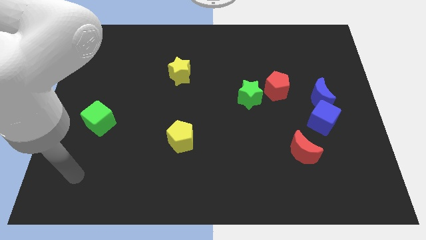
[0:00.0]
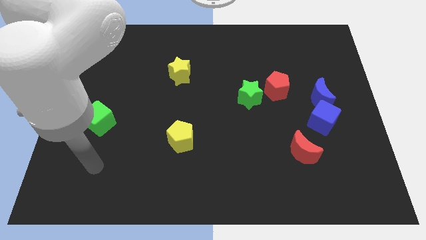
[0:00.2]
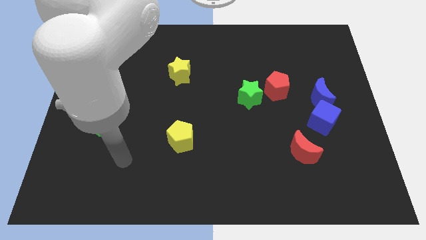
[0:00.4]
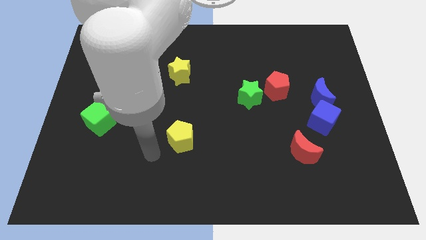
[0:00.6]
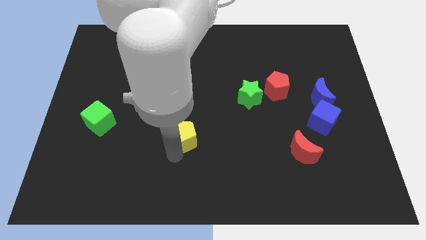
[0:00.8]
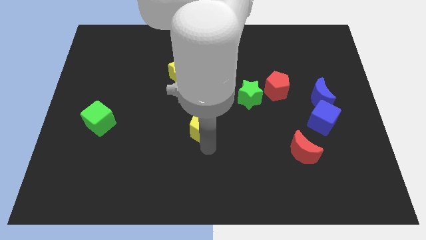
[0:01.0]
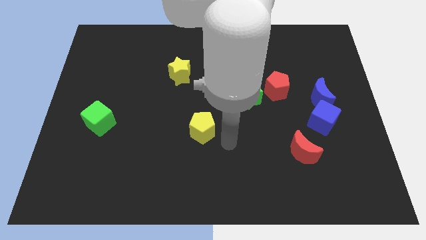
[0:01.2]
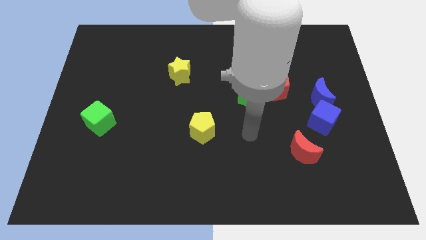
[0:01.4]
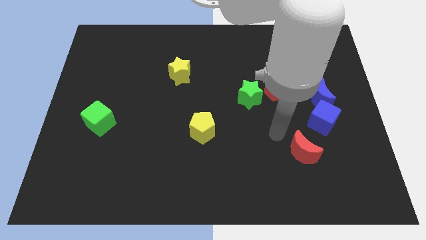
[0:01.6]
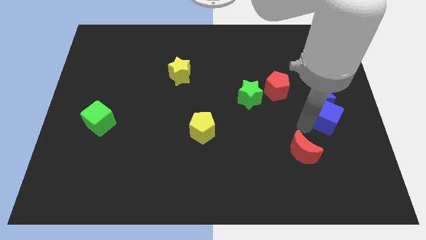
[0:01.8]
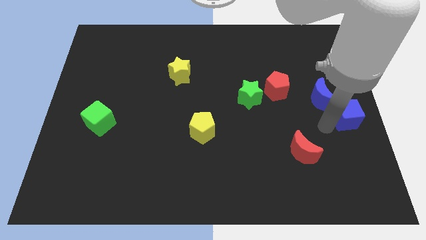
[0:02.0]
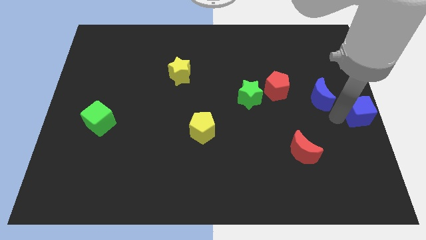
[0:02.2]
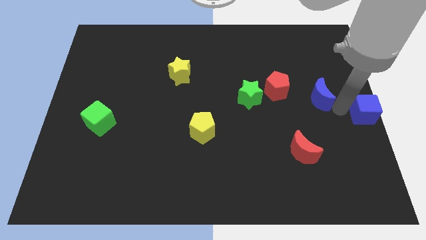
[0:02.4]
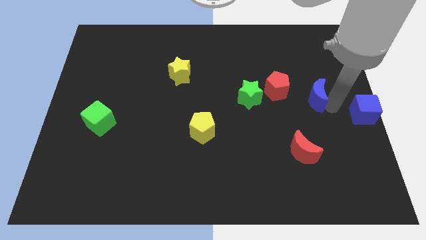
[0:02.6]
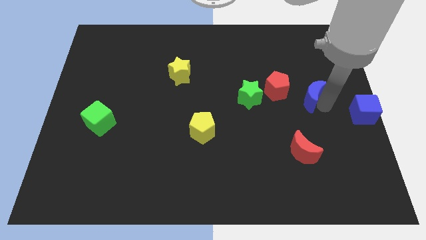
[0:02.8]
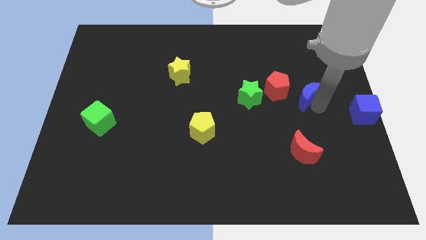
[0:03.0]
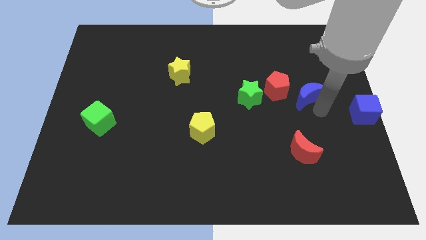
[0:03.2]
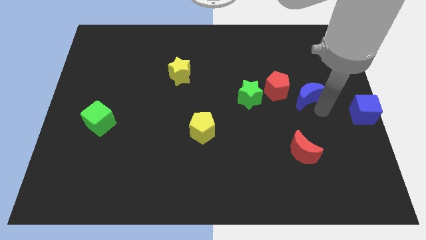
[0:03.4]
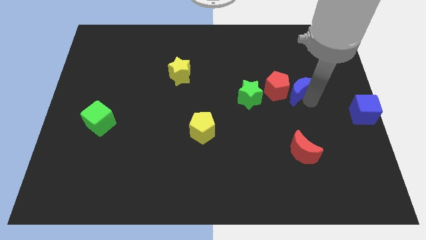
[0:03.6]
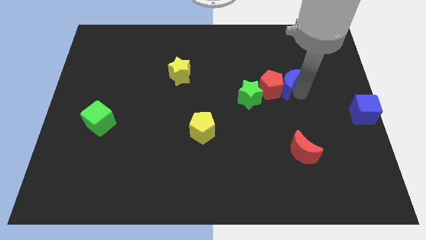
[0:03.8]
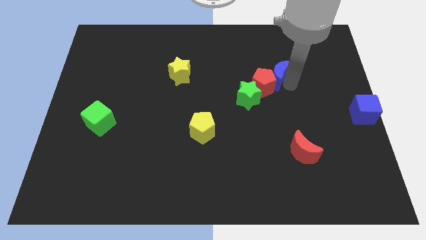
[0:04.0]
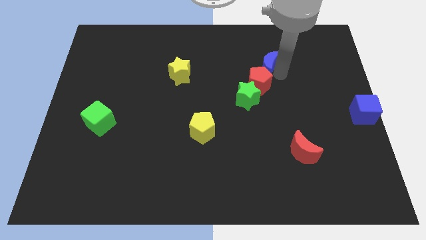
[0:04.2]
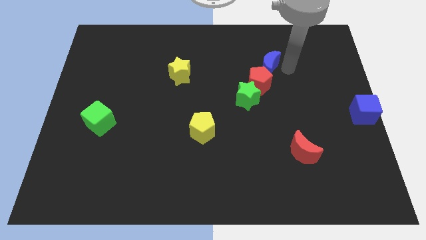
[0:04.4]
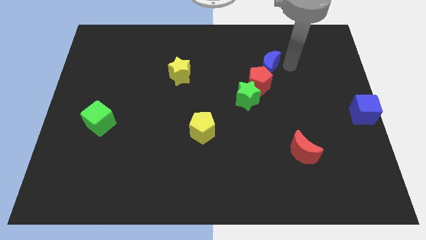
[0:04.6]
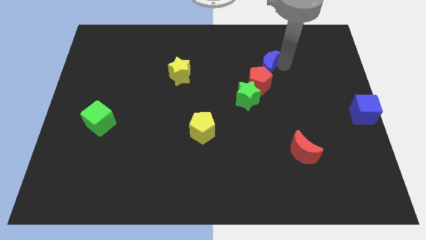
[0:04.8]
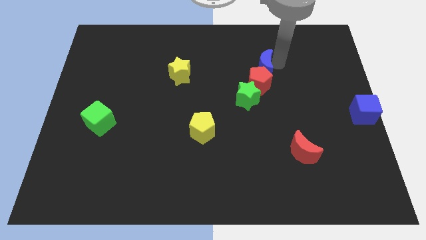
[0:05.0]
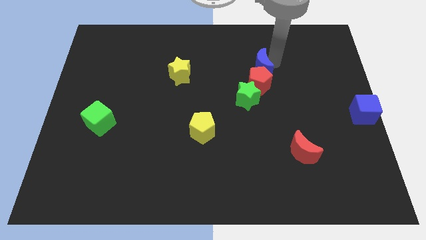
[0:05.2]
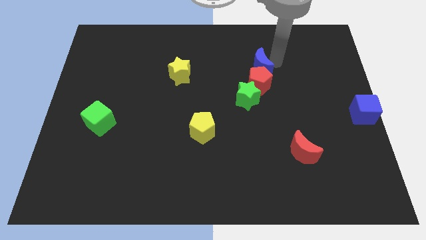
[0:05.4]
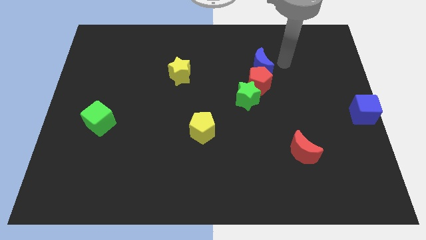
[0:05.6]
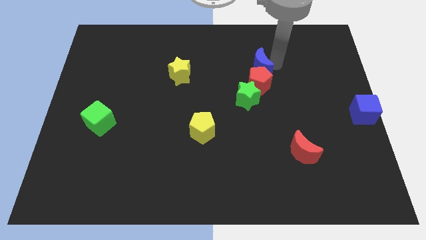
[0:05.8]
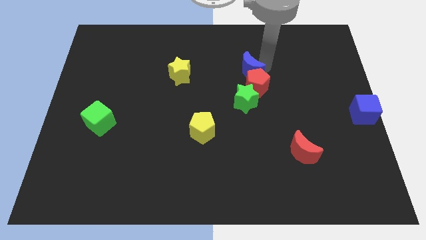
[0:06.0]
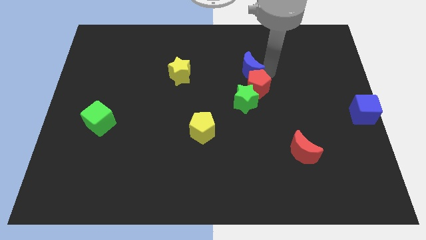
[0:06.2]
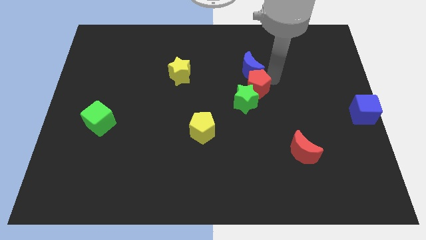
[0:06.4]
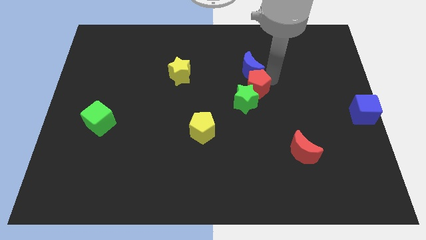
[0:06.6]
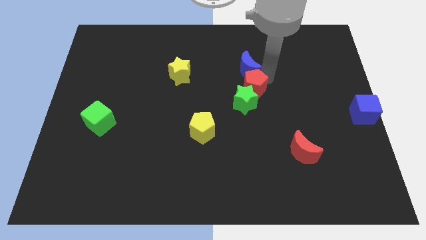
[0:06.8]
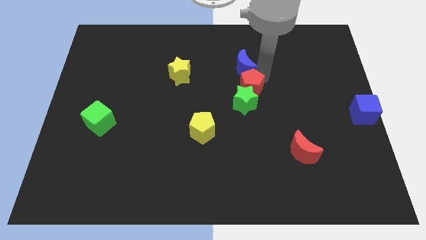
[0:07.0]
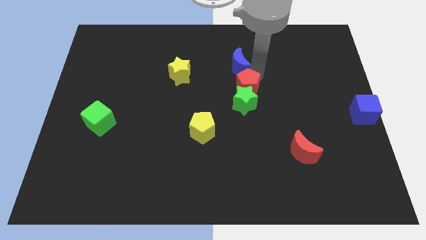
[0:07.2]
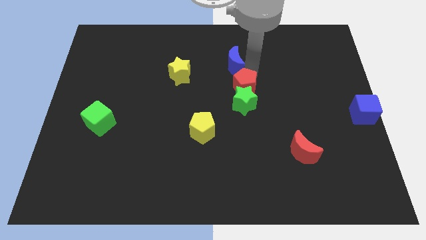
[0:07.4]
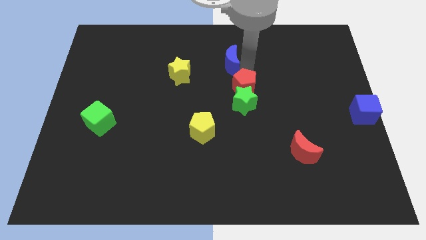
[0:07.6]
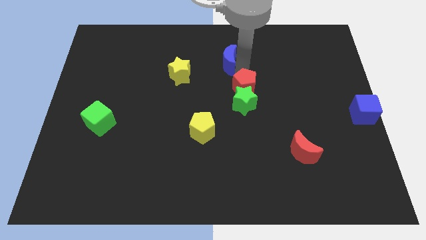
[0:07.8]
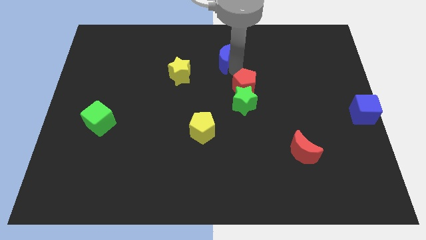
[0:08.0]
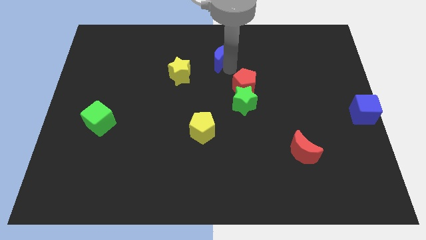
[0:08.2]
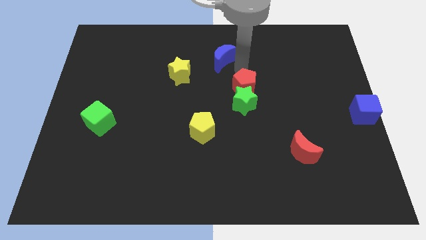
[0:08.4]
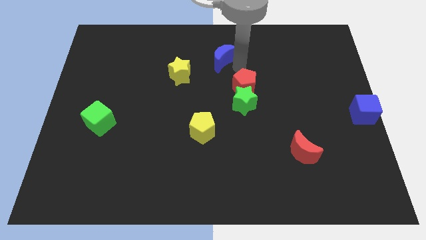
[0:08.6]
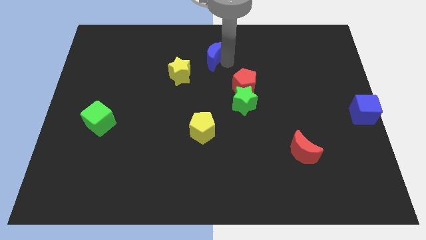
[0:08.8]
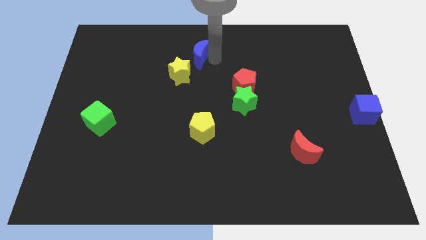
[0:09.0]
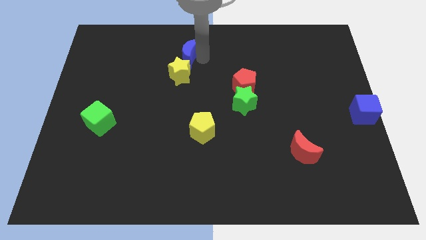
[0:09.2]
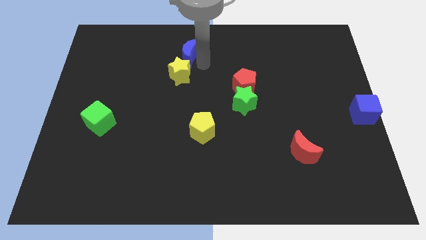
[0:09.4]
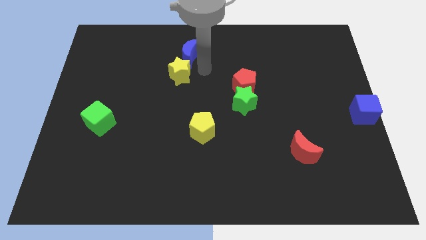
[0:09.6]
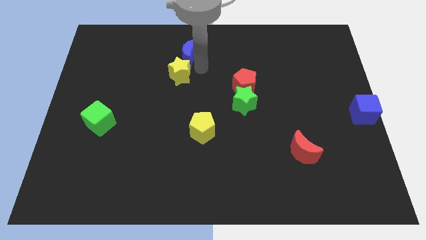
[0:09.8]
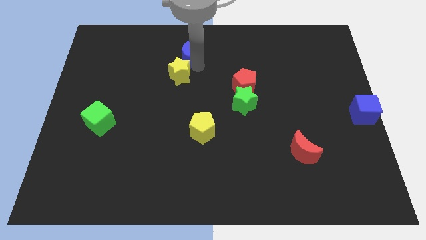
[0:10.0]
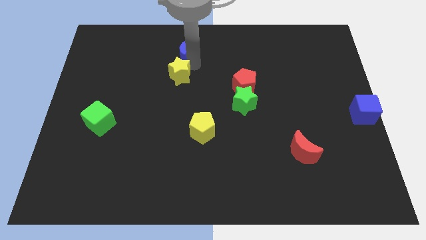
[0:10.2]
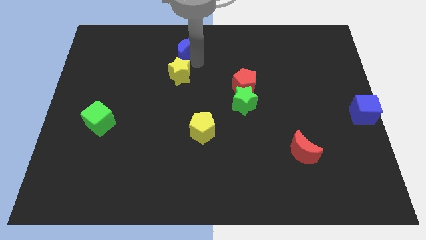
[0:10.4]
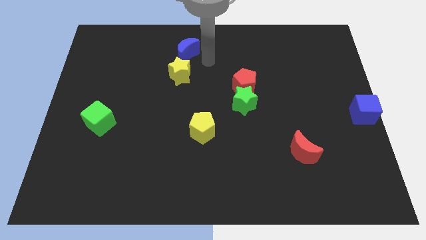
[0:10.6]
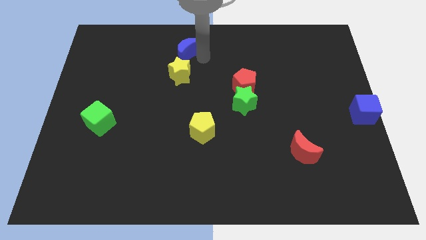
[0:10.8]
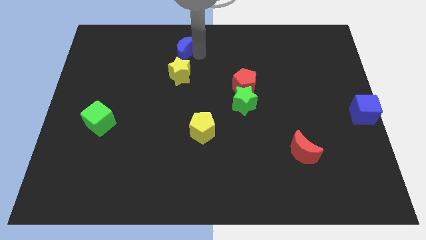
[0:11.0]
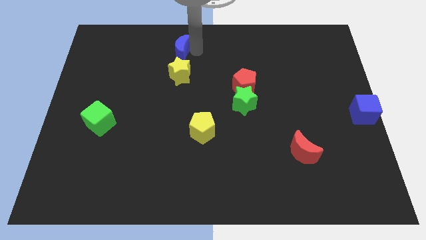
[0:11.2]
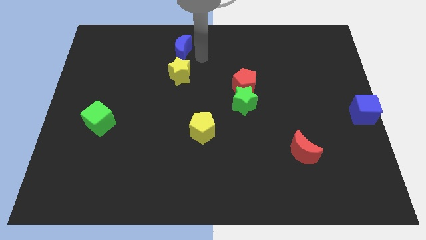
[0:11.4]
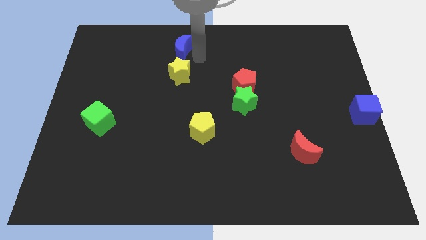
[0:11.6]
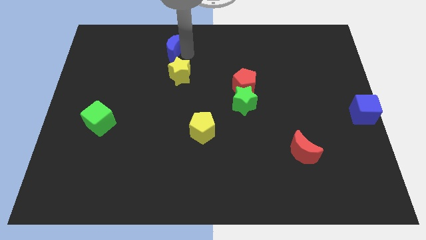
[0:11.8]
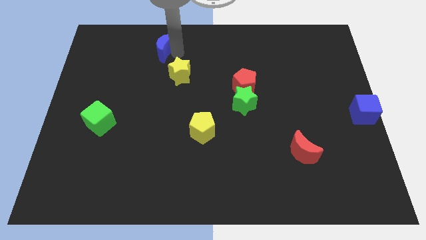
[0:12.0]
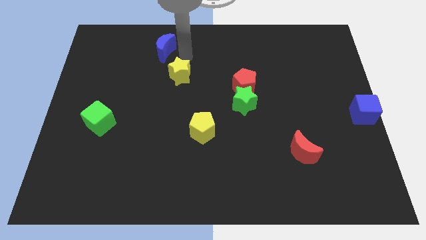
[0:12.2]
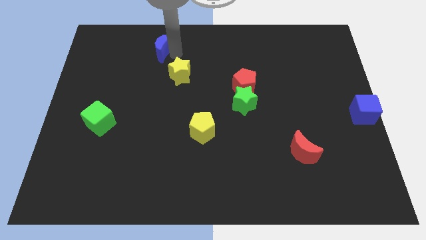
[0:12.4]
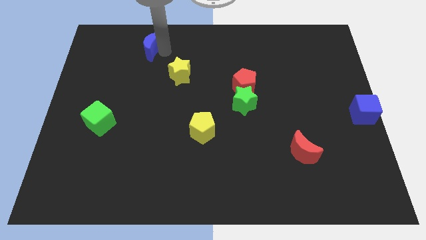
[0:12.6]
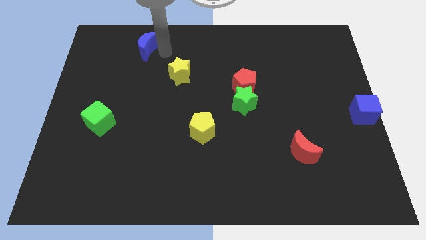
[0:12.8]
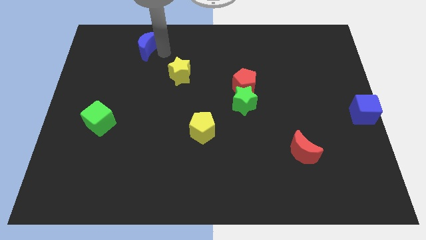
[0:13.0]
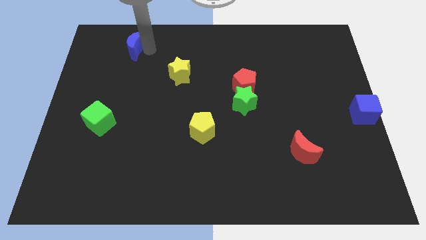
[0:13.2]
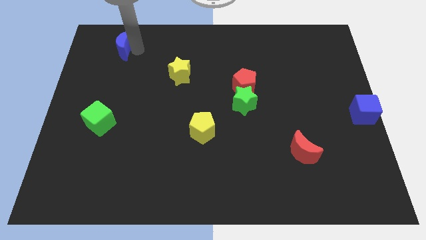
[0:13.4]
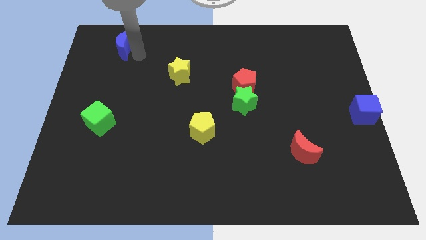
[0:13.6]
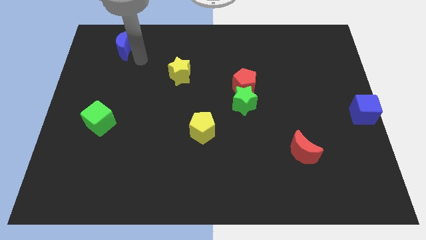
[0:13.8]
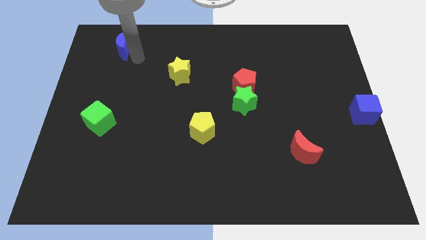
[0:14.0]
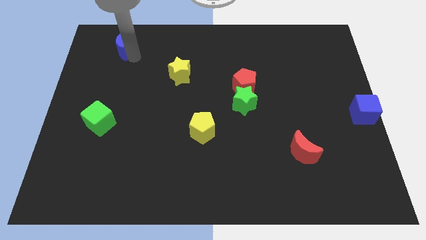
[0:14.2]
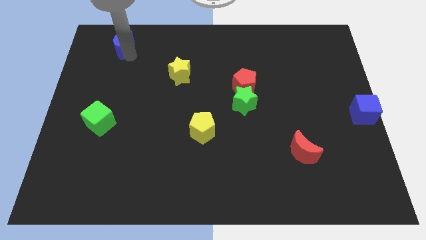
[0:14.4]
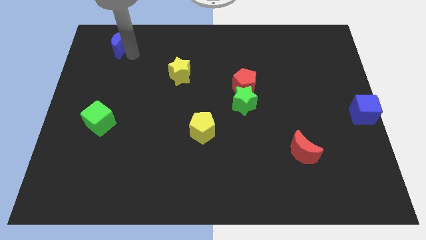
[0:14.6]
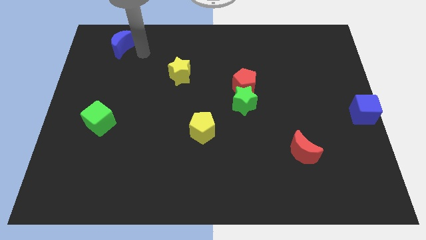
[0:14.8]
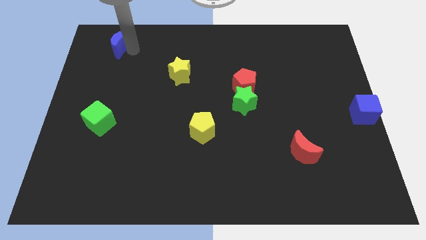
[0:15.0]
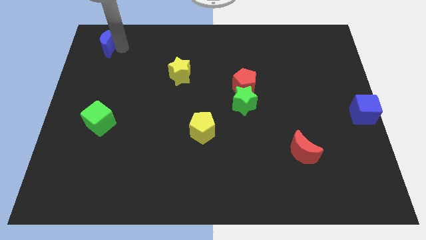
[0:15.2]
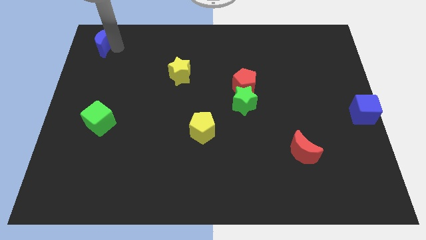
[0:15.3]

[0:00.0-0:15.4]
move the blue moon to the top left corner

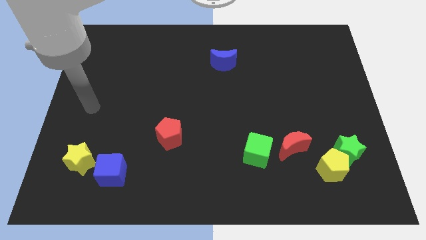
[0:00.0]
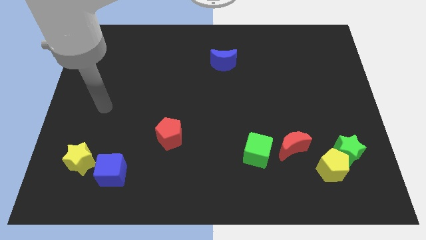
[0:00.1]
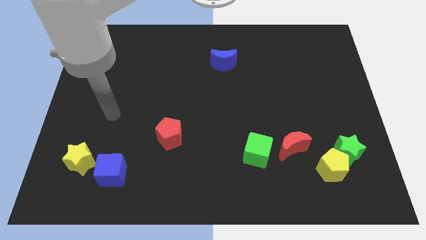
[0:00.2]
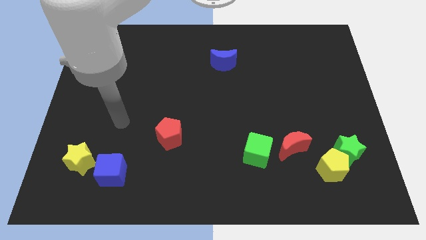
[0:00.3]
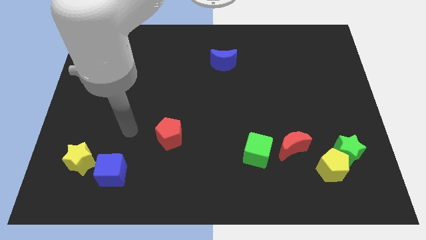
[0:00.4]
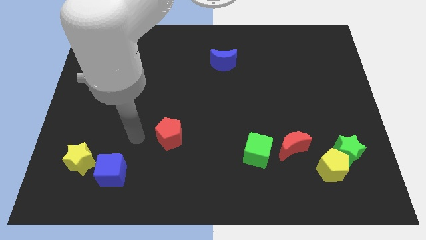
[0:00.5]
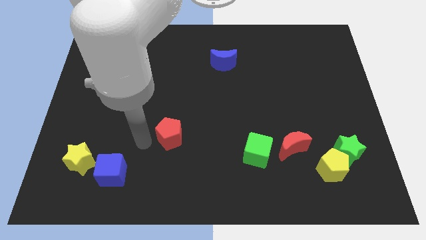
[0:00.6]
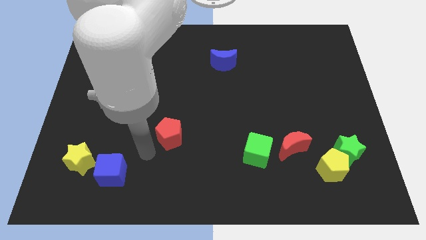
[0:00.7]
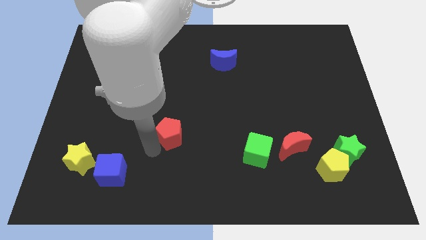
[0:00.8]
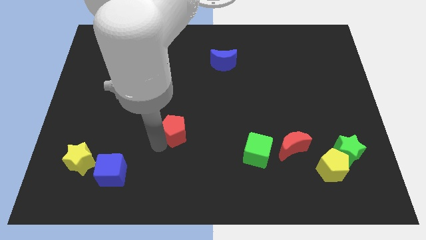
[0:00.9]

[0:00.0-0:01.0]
move the red pentagon to the center
